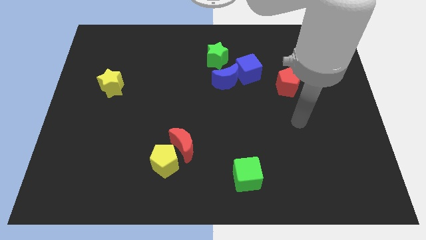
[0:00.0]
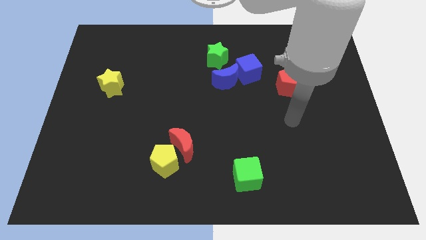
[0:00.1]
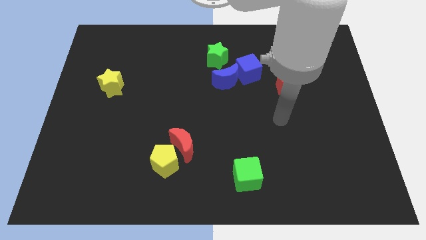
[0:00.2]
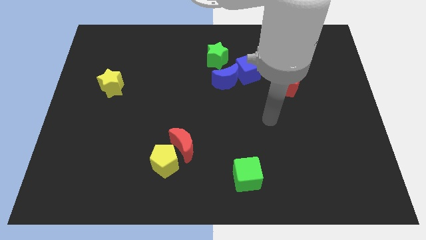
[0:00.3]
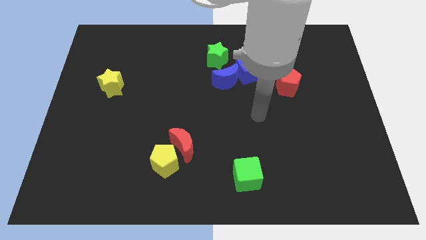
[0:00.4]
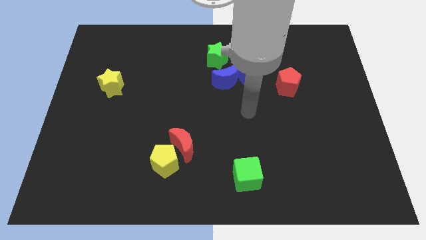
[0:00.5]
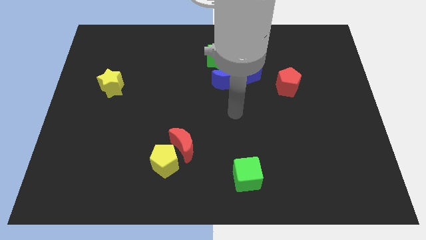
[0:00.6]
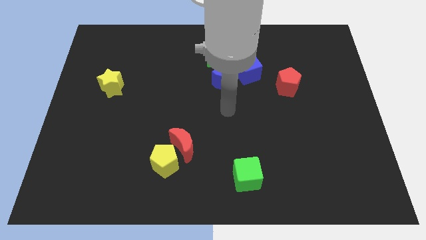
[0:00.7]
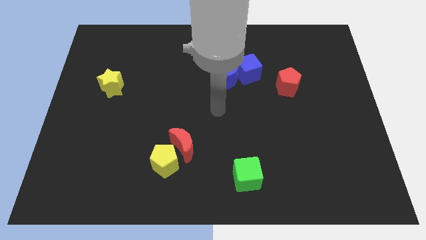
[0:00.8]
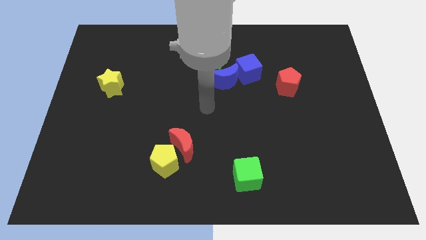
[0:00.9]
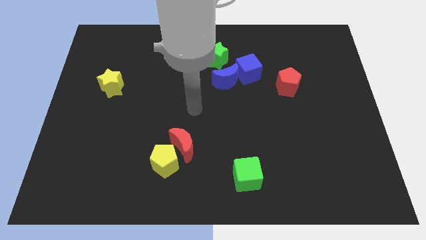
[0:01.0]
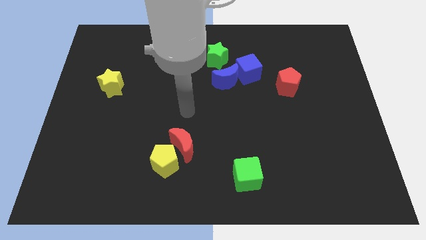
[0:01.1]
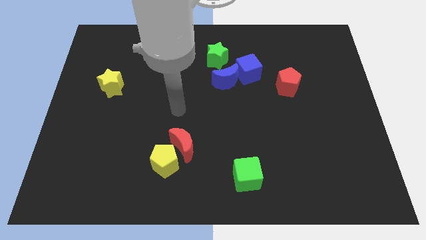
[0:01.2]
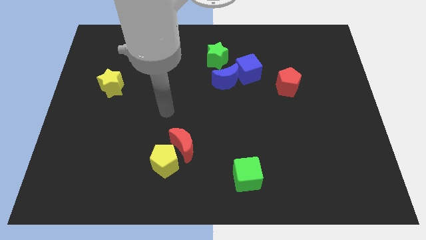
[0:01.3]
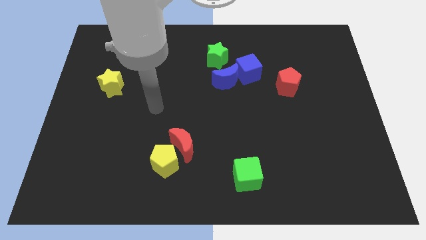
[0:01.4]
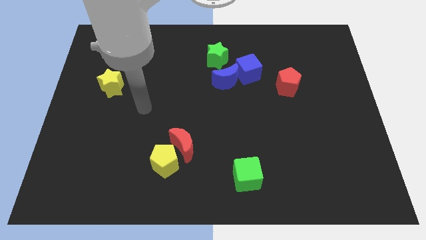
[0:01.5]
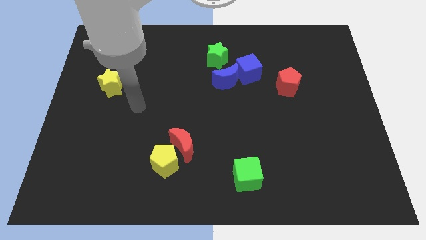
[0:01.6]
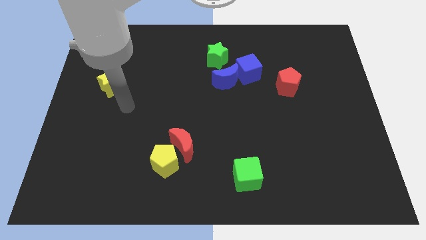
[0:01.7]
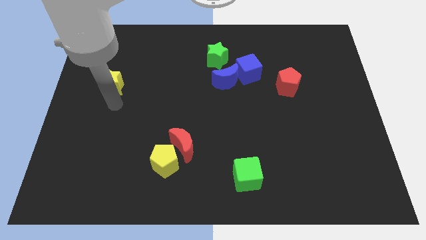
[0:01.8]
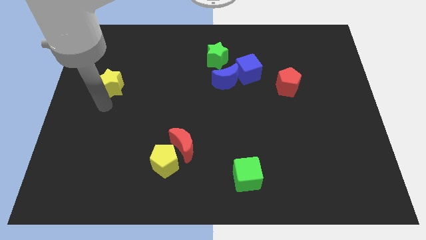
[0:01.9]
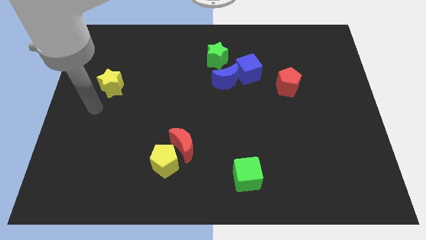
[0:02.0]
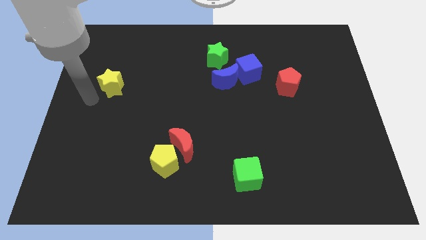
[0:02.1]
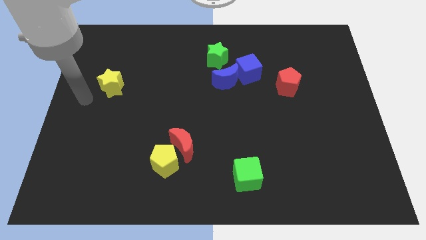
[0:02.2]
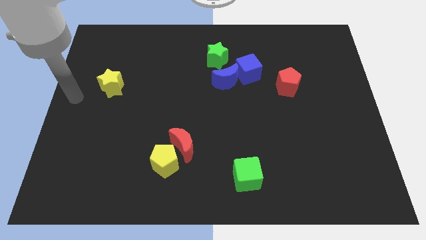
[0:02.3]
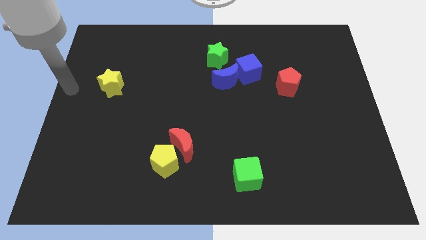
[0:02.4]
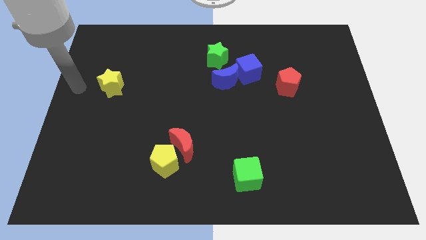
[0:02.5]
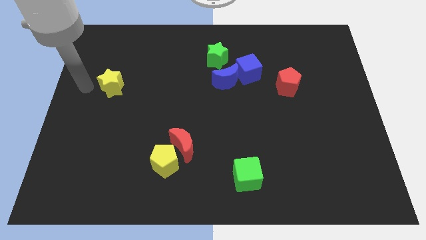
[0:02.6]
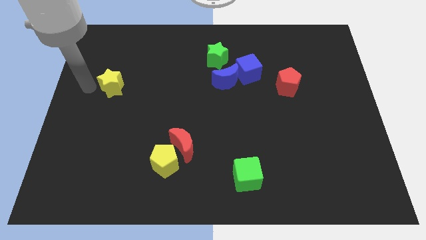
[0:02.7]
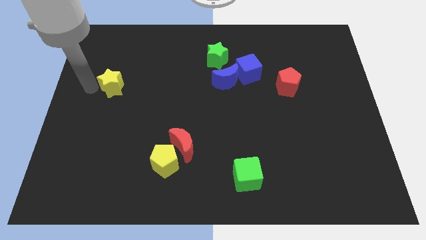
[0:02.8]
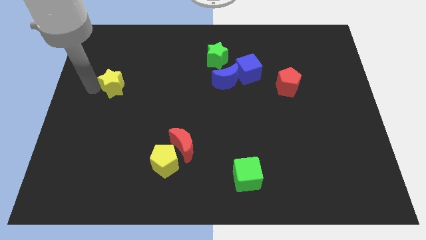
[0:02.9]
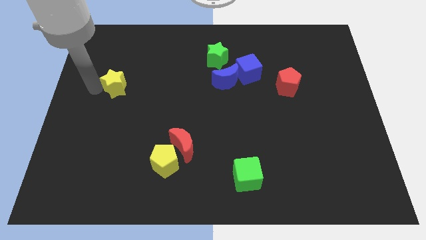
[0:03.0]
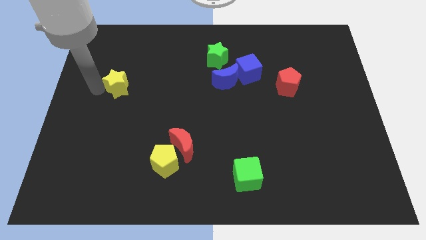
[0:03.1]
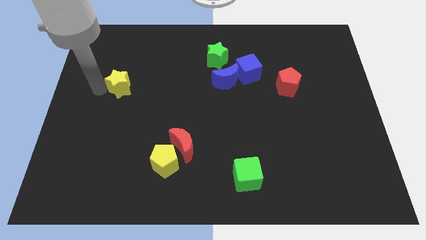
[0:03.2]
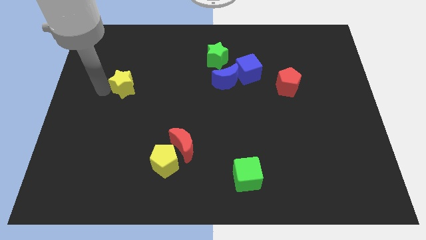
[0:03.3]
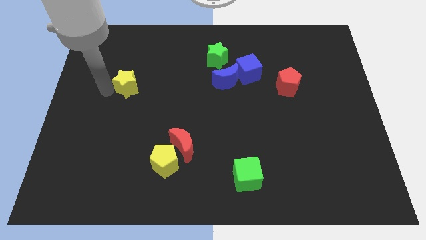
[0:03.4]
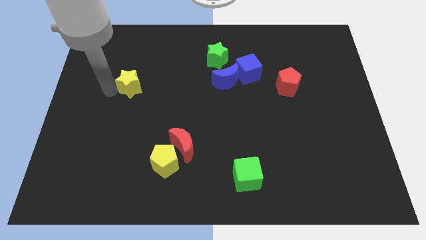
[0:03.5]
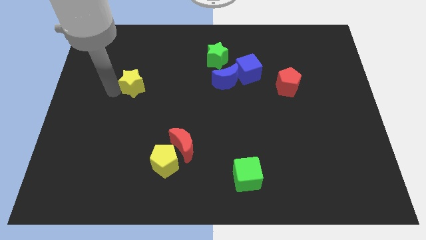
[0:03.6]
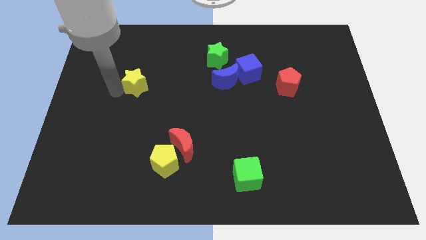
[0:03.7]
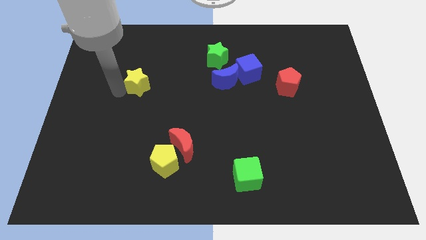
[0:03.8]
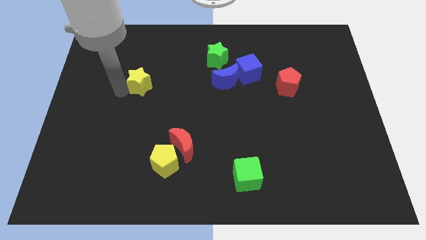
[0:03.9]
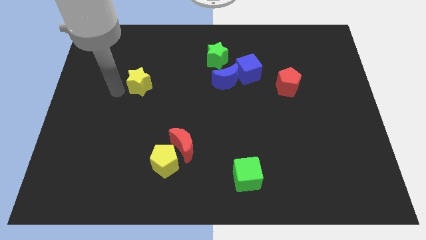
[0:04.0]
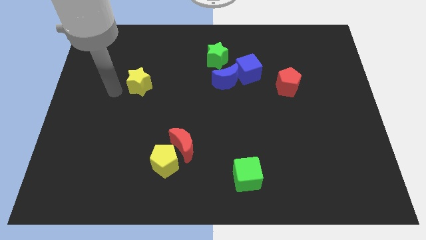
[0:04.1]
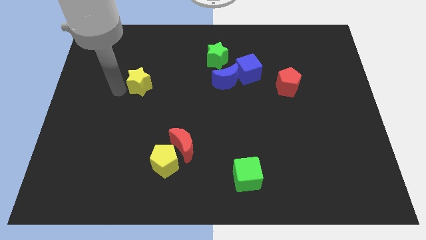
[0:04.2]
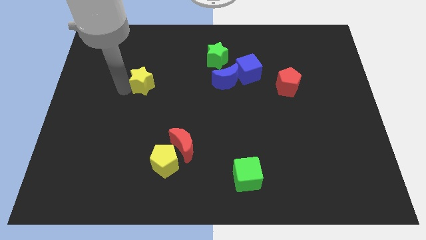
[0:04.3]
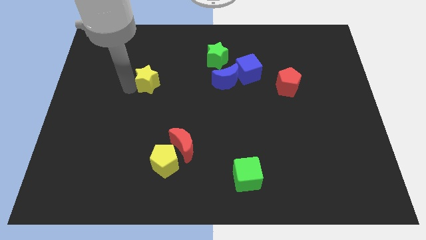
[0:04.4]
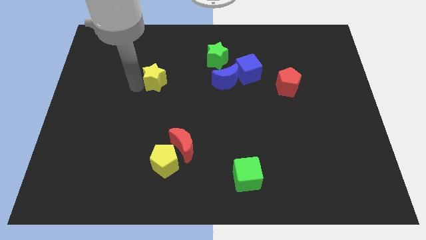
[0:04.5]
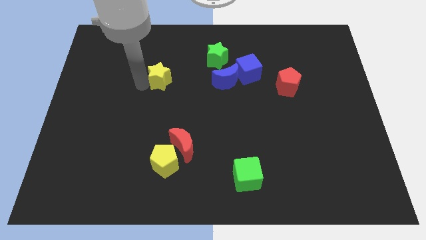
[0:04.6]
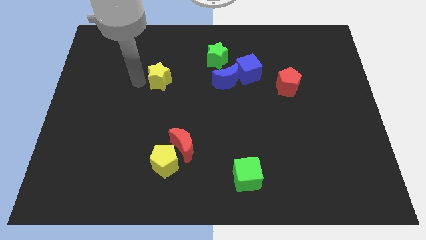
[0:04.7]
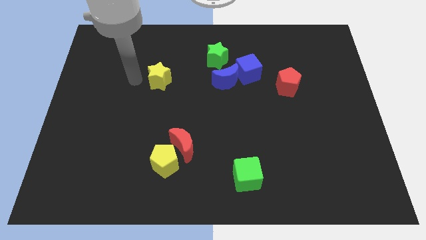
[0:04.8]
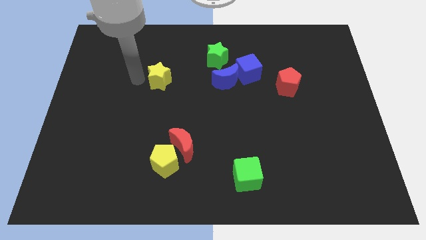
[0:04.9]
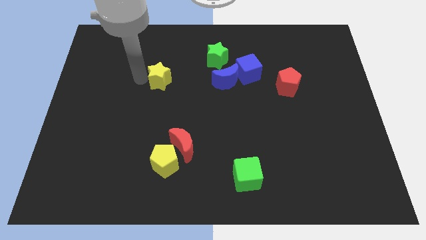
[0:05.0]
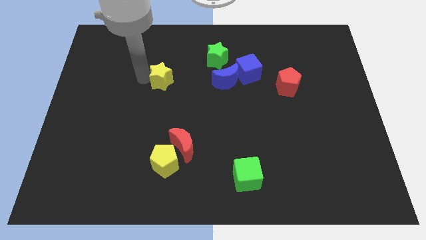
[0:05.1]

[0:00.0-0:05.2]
push the yellow star to the left side of the blue moon

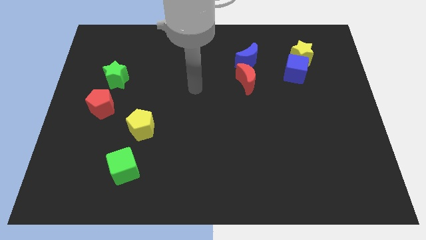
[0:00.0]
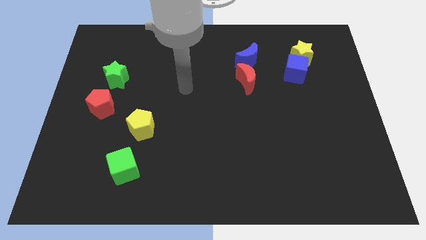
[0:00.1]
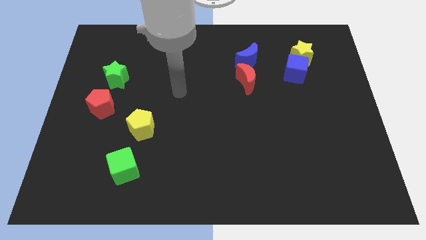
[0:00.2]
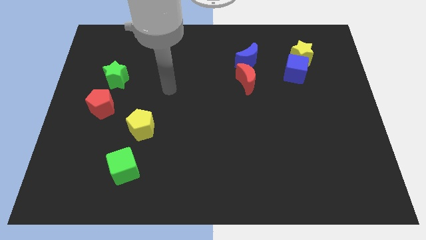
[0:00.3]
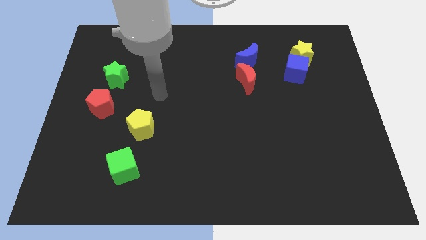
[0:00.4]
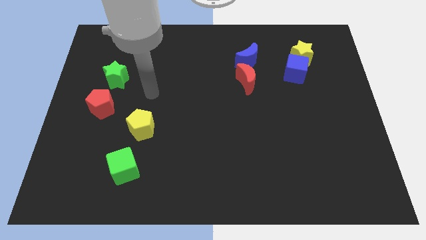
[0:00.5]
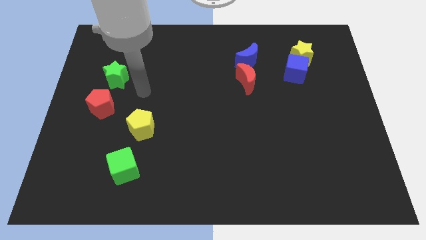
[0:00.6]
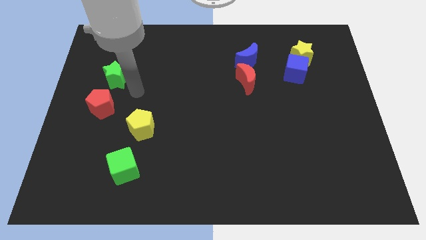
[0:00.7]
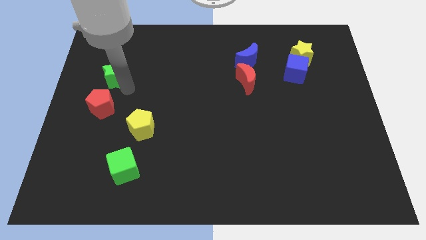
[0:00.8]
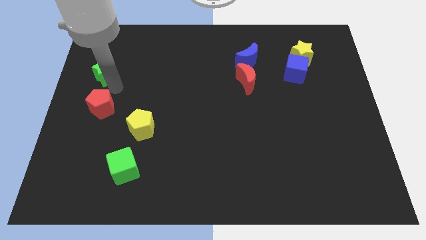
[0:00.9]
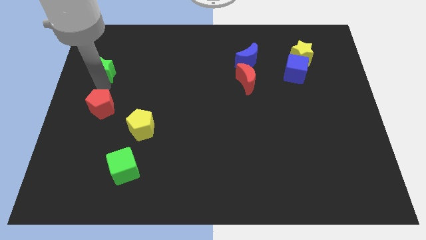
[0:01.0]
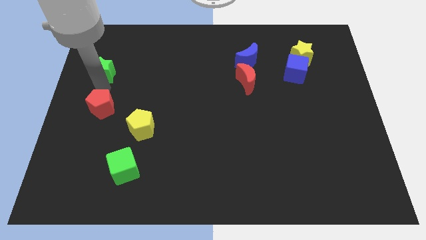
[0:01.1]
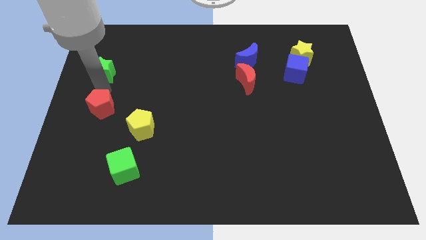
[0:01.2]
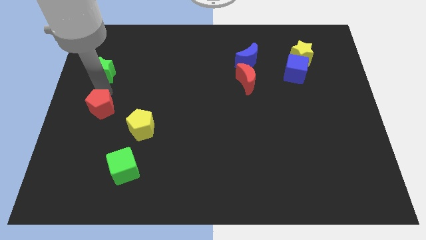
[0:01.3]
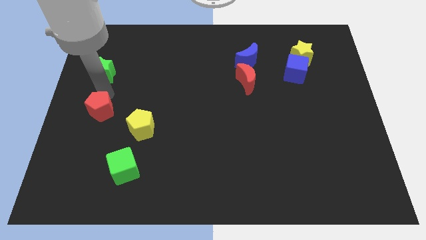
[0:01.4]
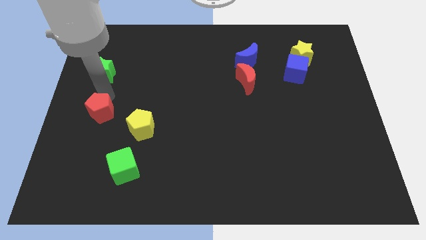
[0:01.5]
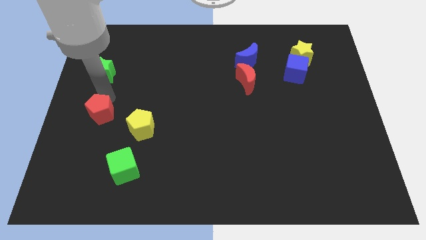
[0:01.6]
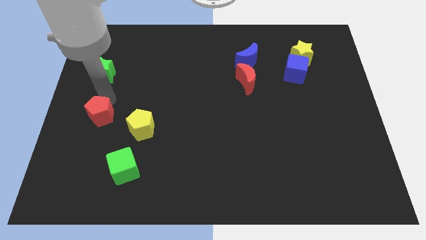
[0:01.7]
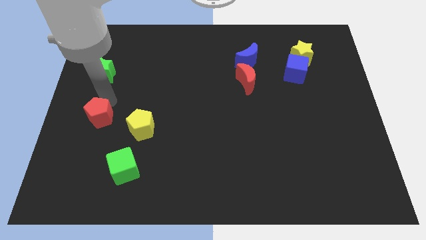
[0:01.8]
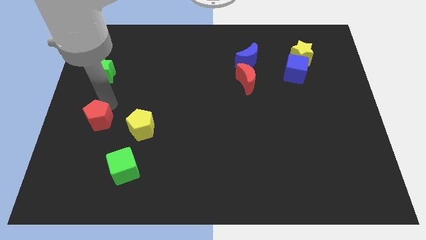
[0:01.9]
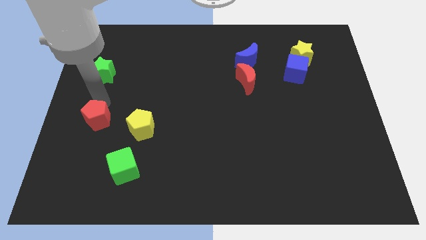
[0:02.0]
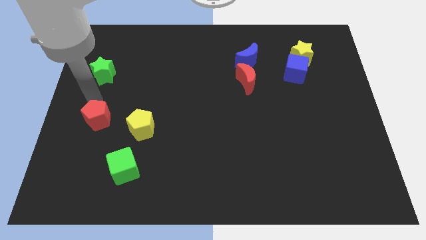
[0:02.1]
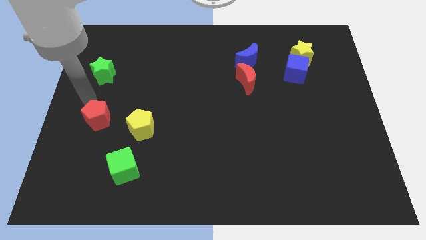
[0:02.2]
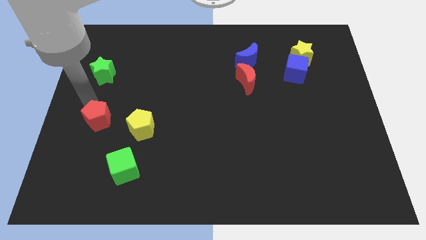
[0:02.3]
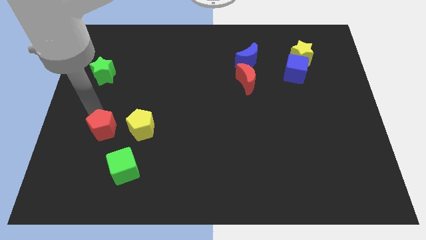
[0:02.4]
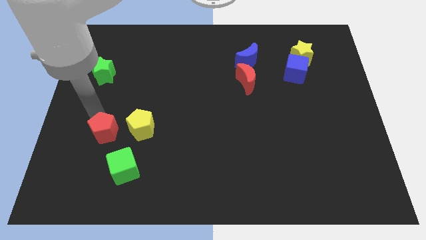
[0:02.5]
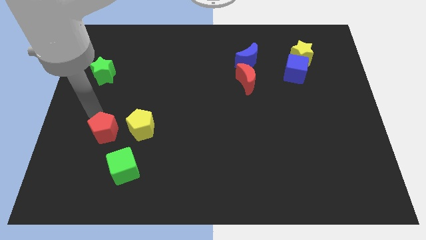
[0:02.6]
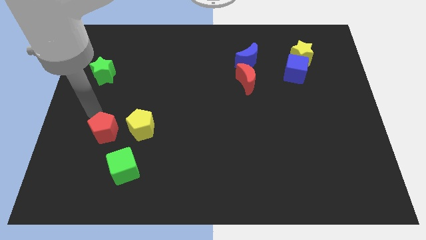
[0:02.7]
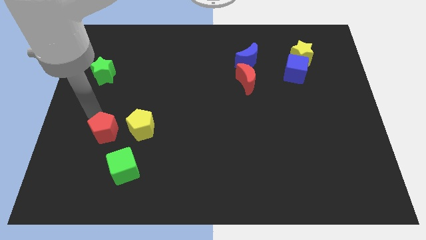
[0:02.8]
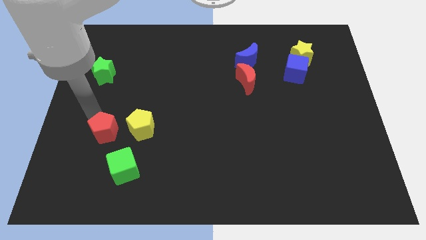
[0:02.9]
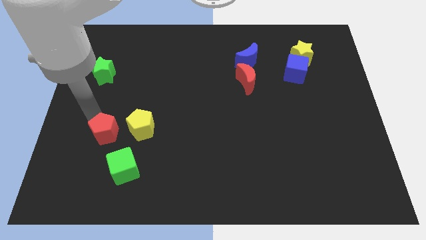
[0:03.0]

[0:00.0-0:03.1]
move the red pentagon to the bottom left of the yellow pentagon
